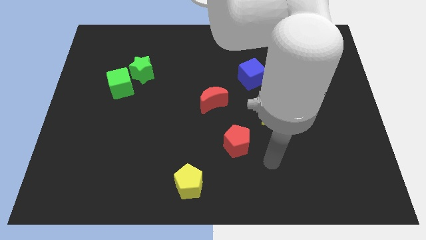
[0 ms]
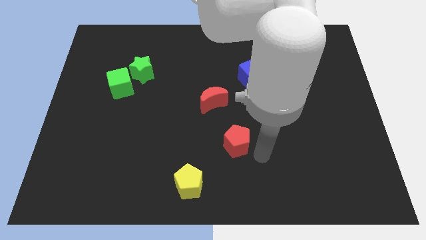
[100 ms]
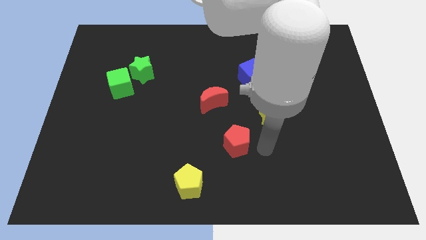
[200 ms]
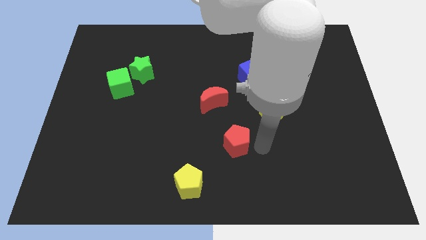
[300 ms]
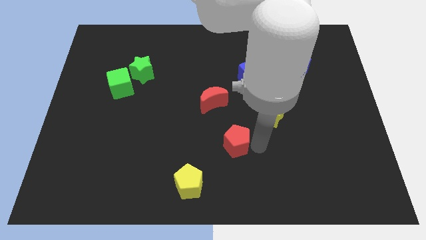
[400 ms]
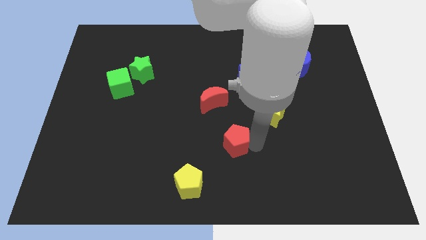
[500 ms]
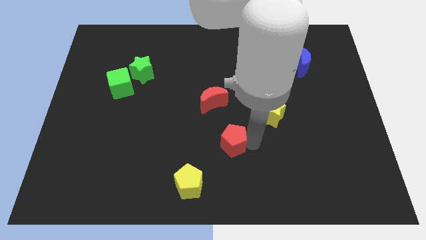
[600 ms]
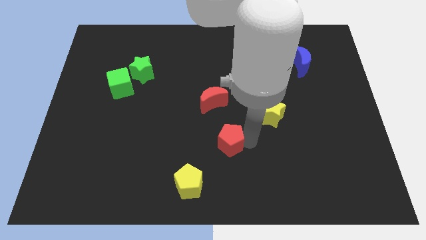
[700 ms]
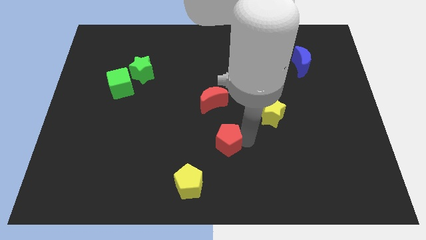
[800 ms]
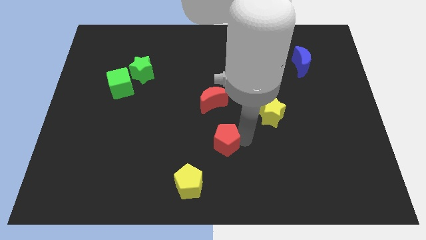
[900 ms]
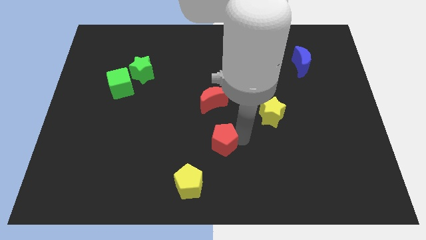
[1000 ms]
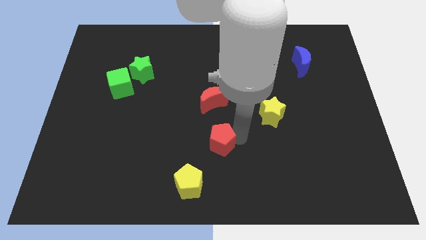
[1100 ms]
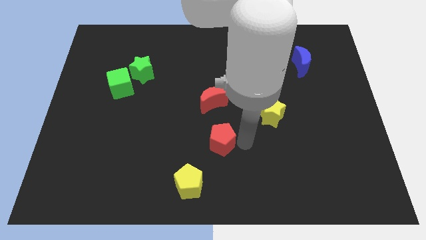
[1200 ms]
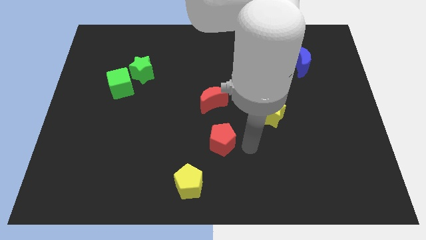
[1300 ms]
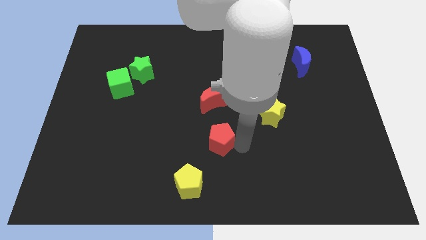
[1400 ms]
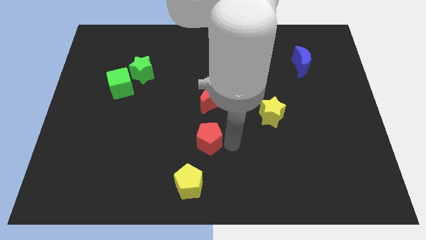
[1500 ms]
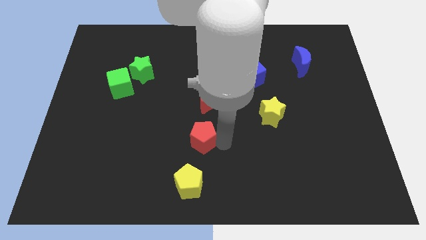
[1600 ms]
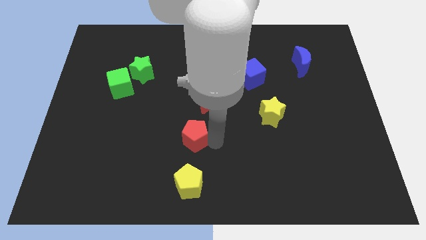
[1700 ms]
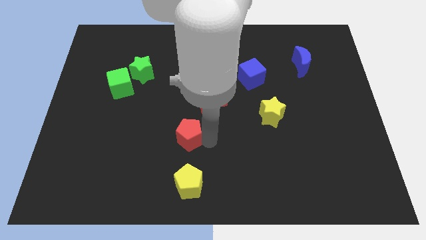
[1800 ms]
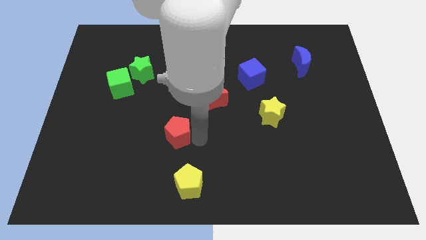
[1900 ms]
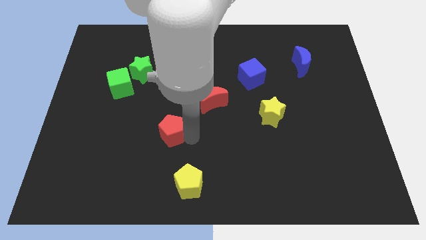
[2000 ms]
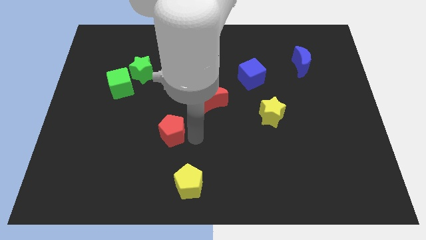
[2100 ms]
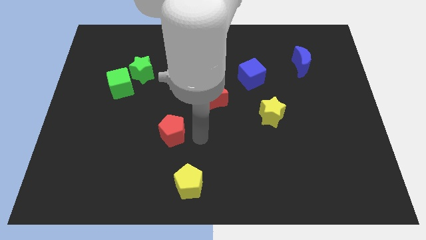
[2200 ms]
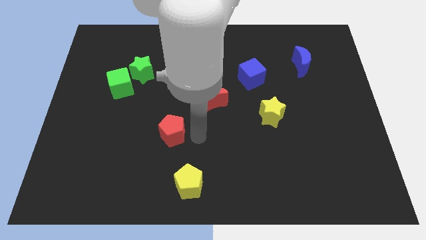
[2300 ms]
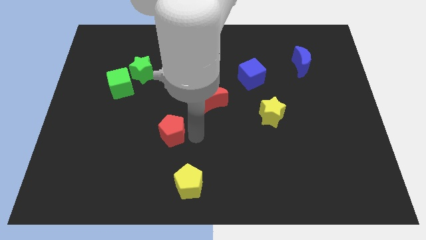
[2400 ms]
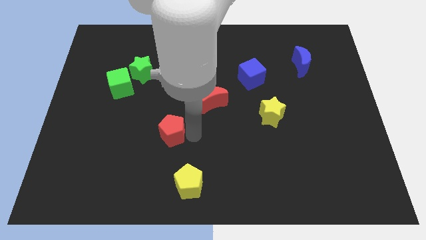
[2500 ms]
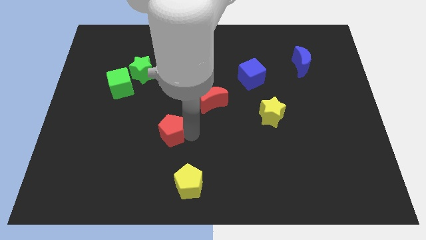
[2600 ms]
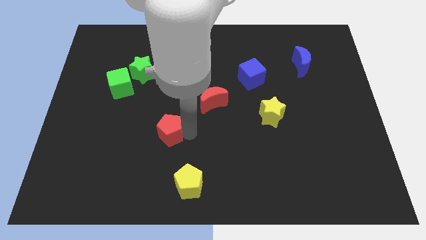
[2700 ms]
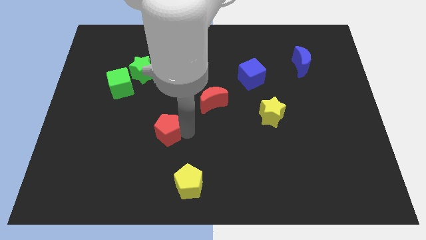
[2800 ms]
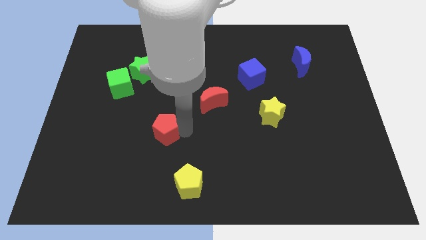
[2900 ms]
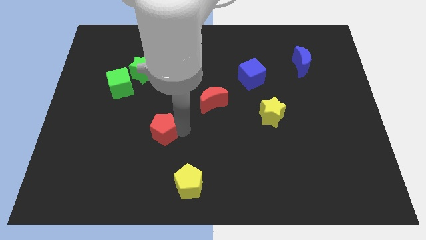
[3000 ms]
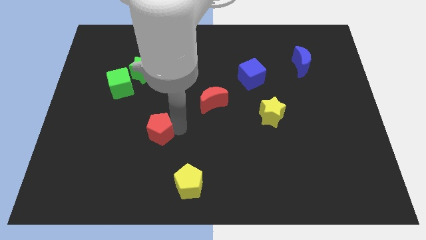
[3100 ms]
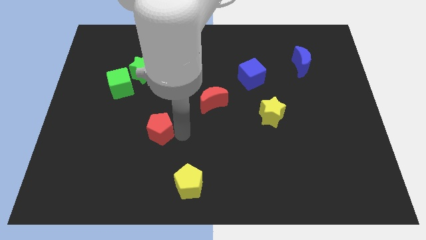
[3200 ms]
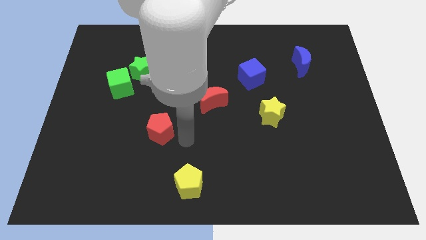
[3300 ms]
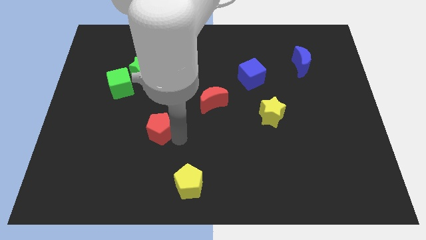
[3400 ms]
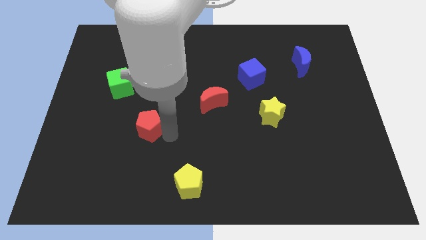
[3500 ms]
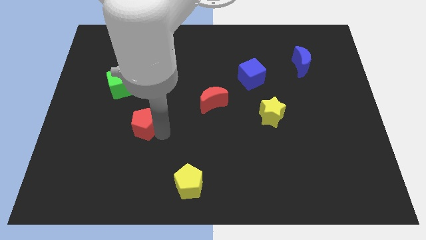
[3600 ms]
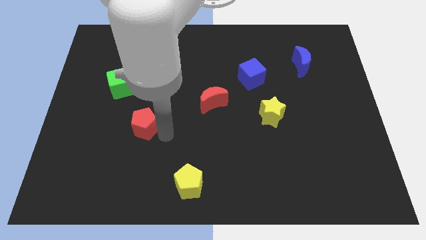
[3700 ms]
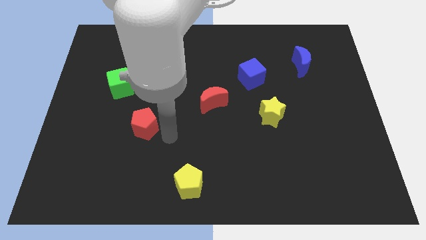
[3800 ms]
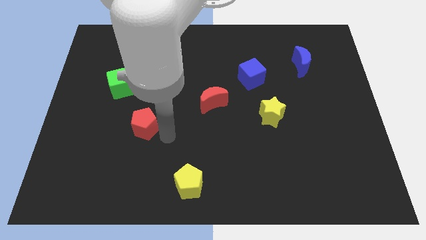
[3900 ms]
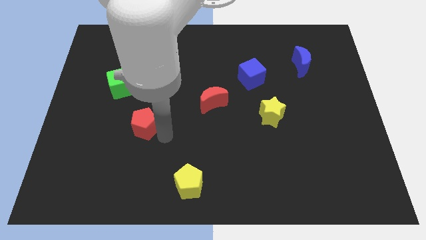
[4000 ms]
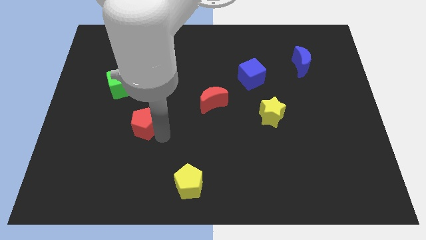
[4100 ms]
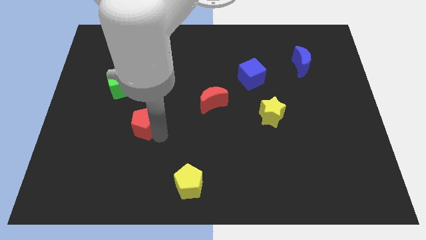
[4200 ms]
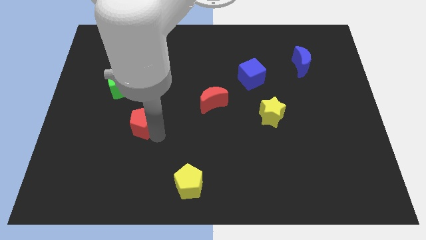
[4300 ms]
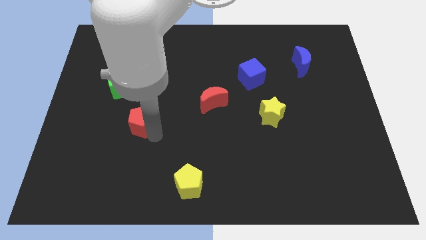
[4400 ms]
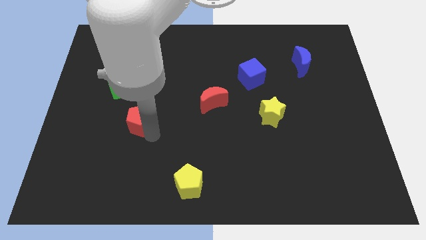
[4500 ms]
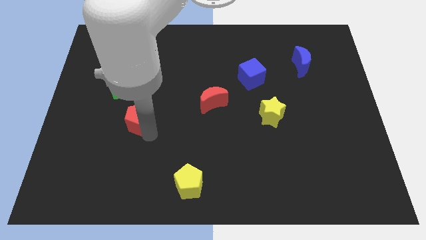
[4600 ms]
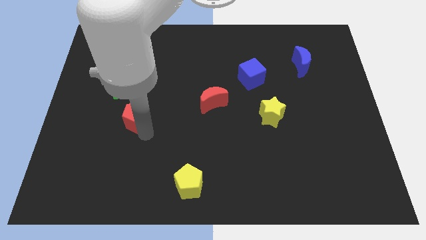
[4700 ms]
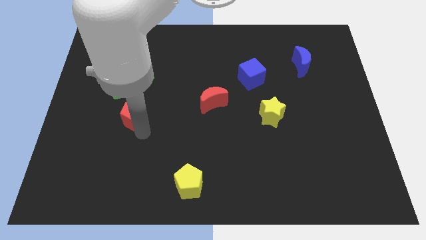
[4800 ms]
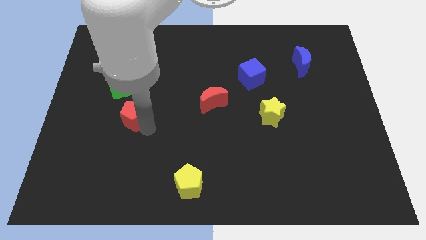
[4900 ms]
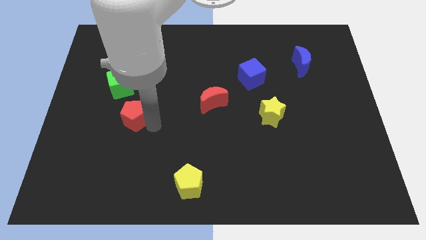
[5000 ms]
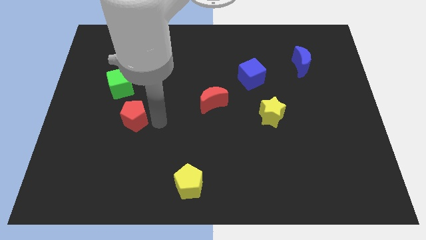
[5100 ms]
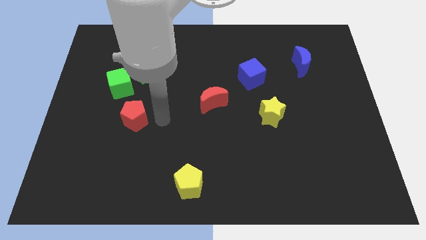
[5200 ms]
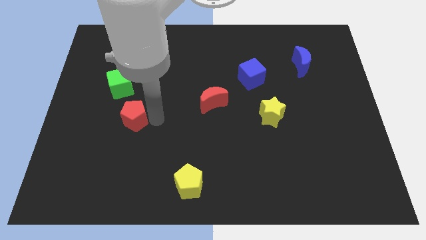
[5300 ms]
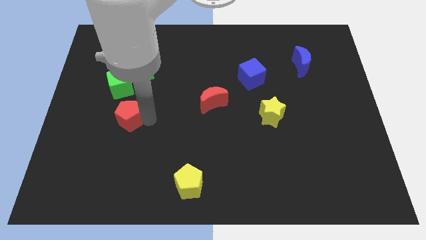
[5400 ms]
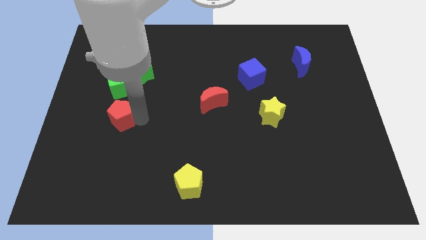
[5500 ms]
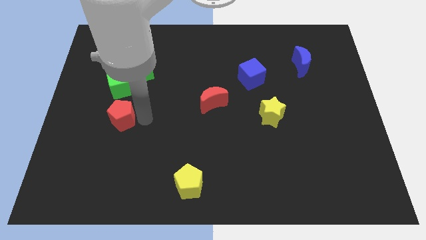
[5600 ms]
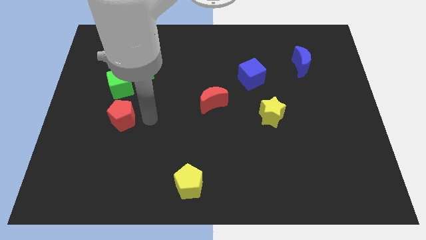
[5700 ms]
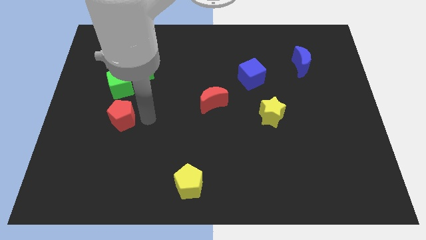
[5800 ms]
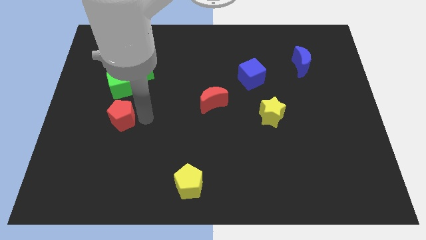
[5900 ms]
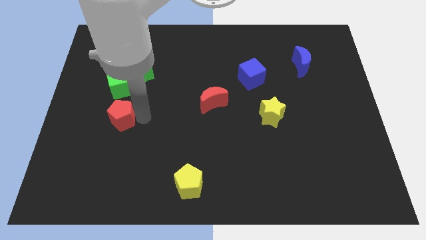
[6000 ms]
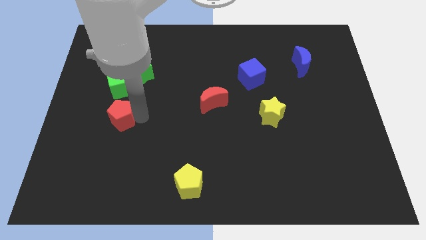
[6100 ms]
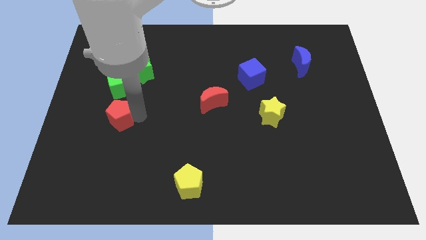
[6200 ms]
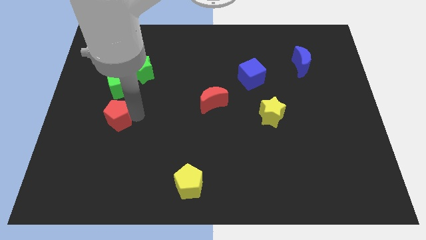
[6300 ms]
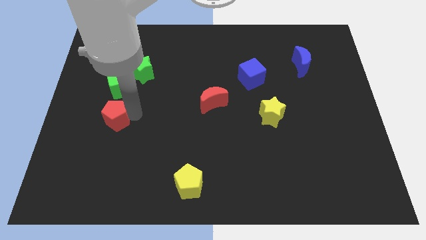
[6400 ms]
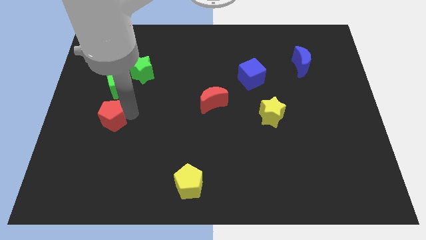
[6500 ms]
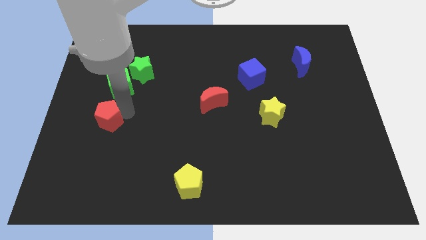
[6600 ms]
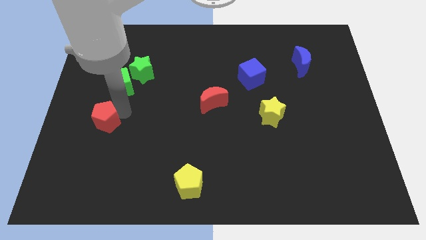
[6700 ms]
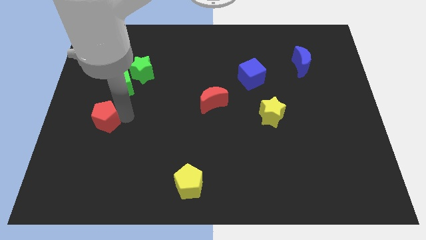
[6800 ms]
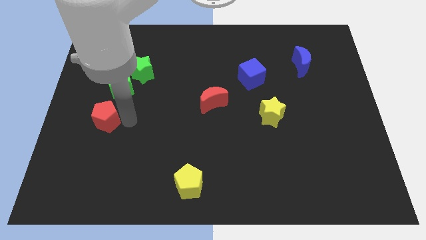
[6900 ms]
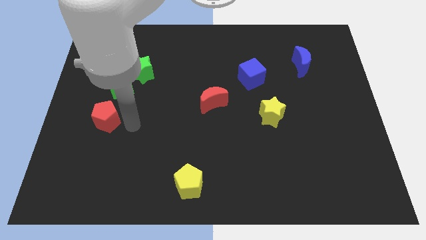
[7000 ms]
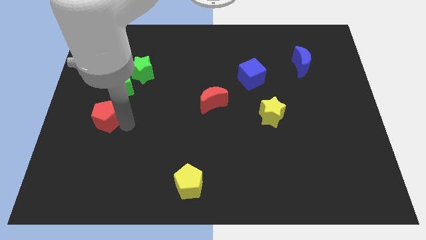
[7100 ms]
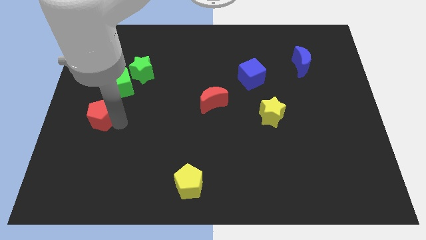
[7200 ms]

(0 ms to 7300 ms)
push the red pentagon to the left side
